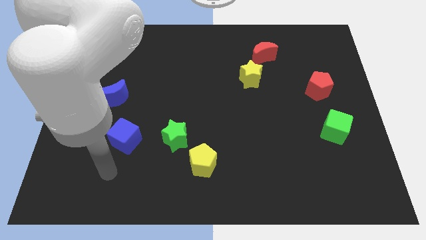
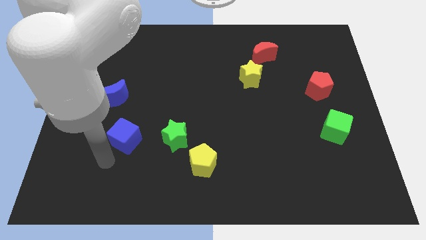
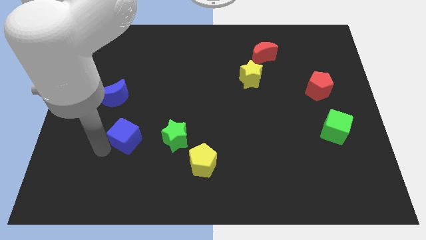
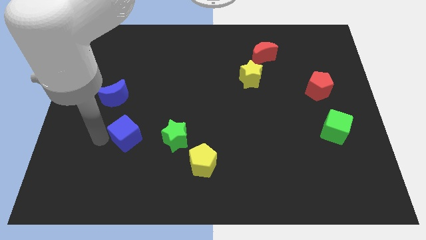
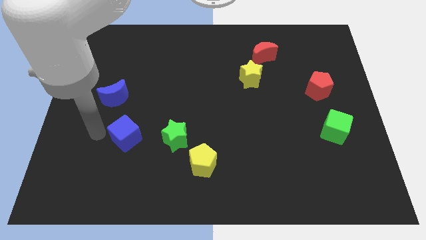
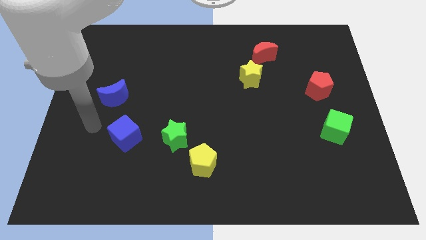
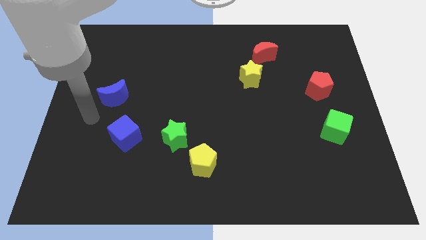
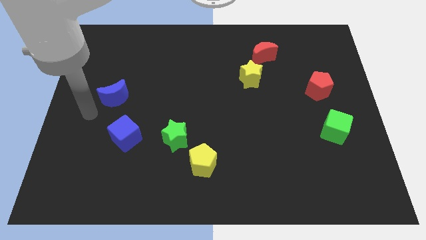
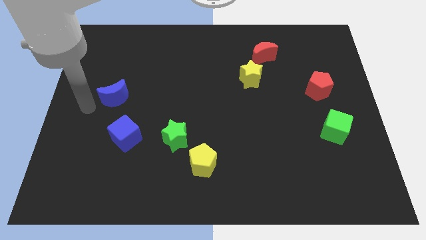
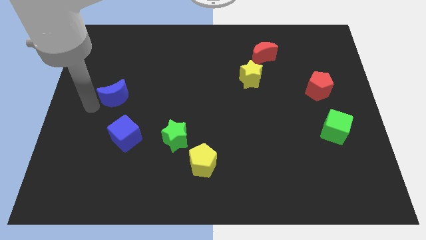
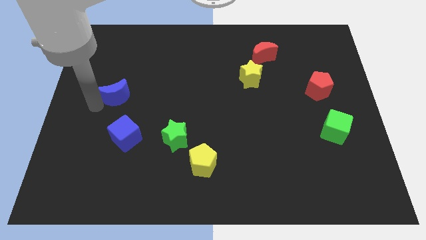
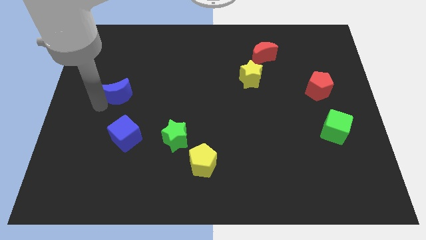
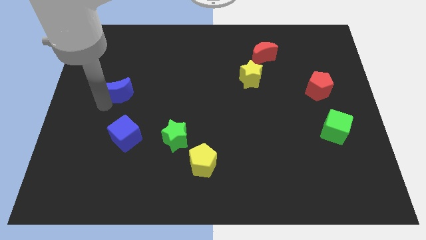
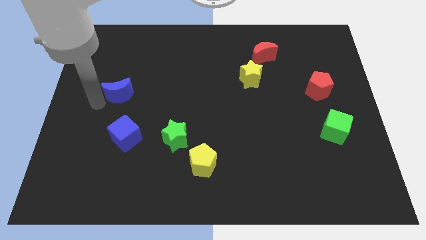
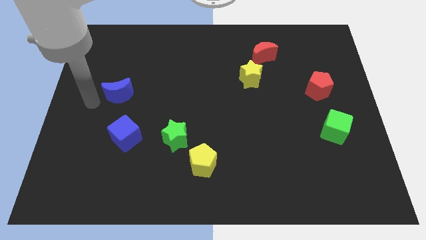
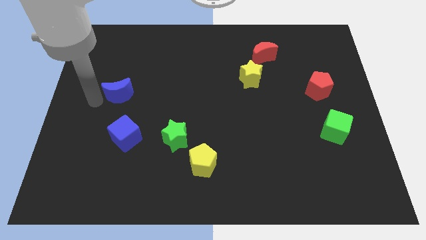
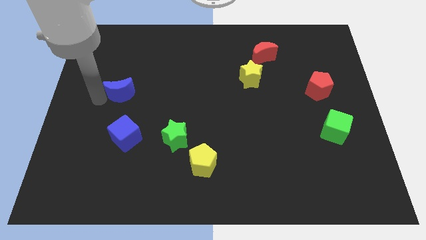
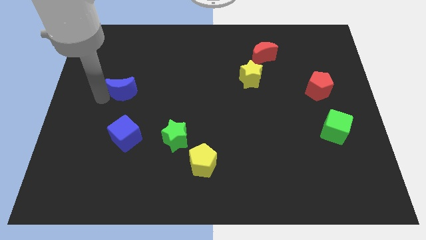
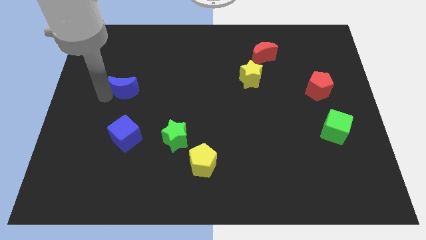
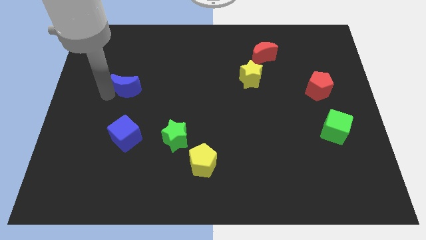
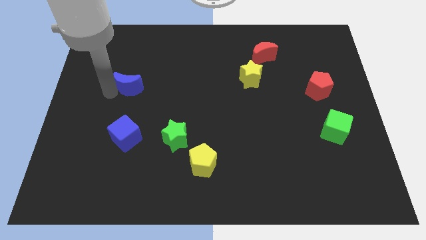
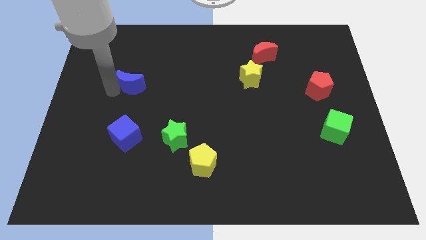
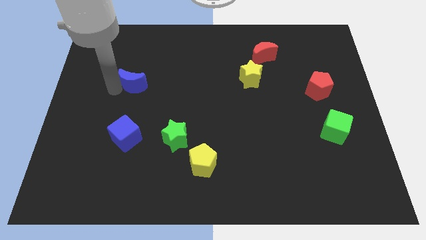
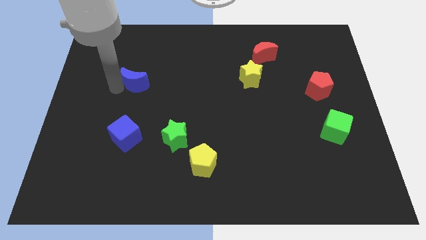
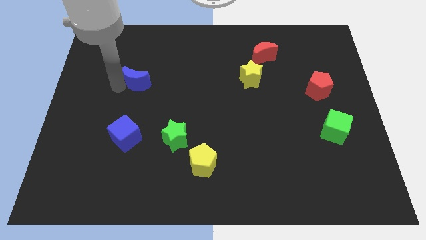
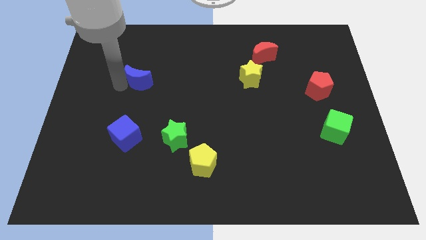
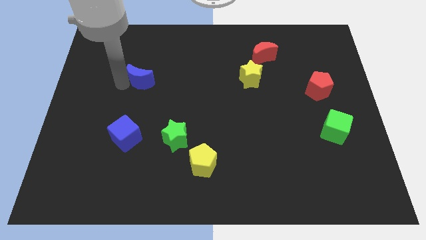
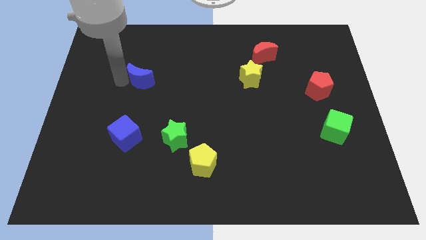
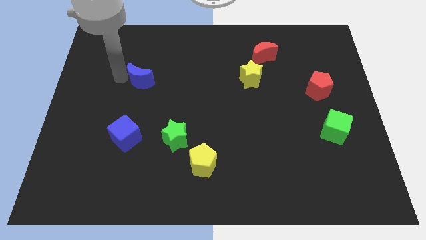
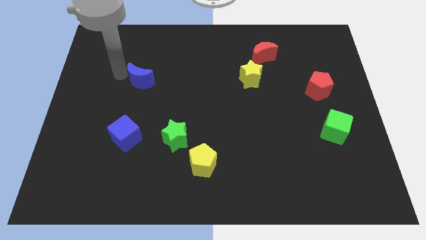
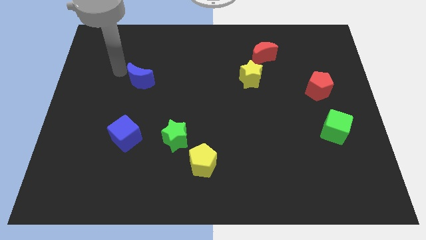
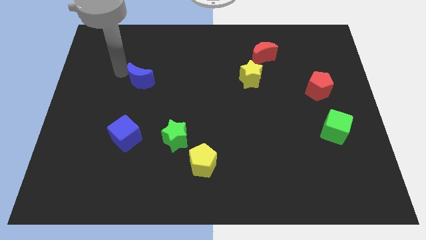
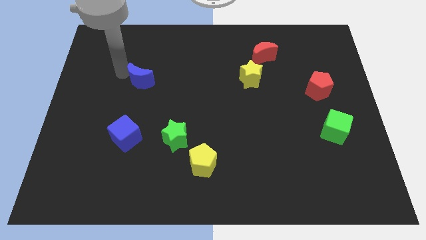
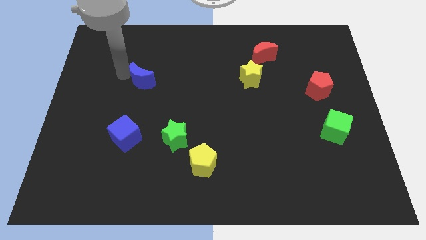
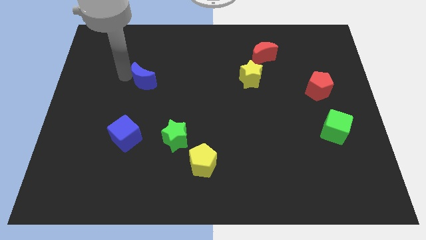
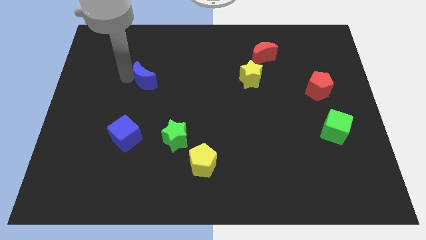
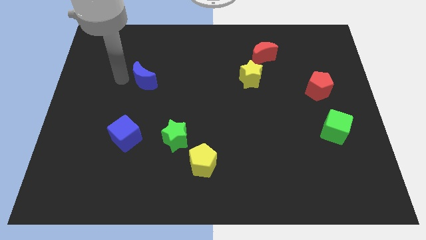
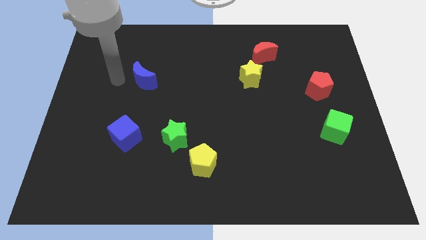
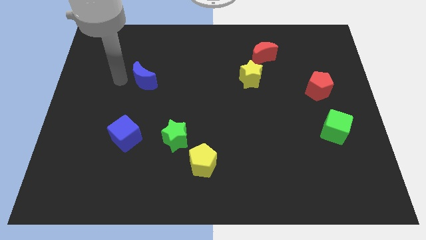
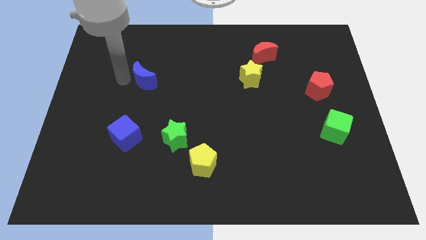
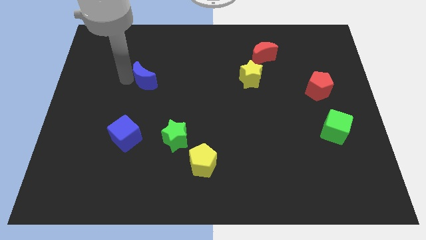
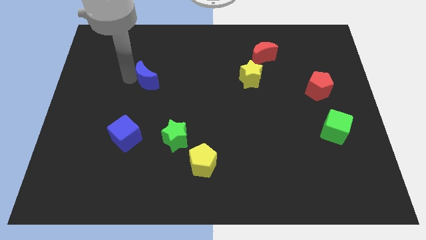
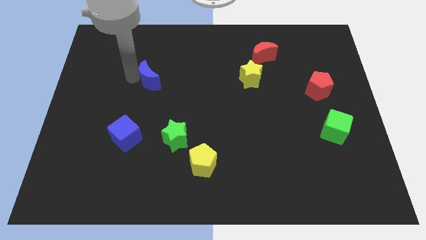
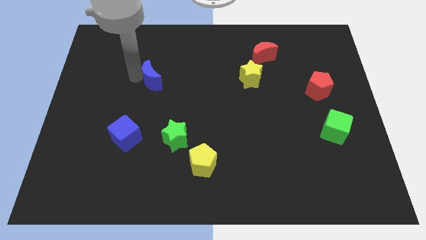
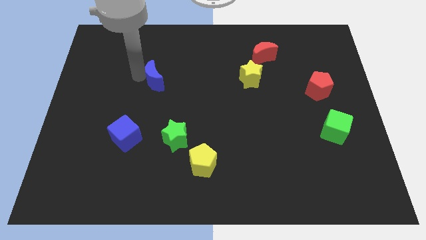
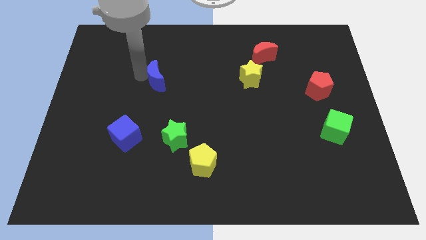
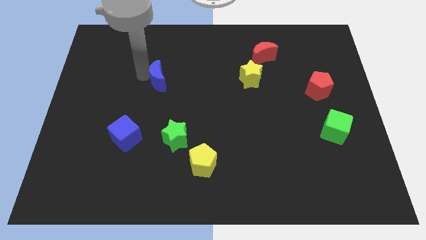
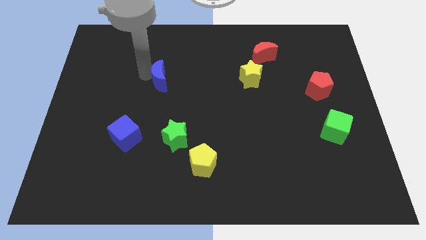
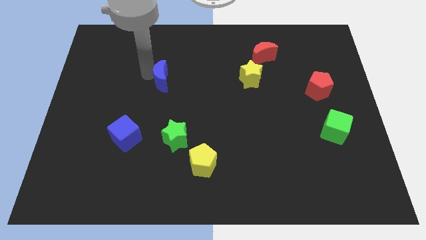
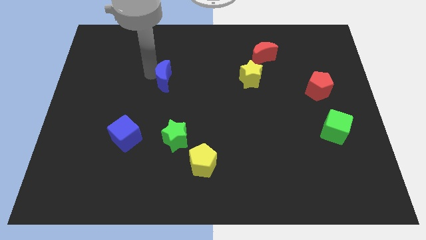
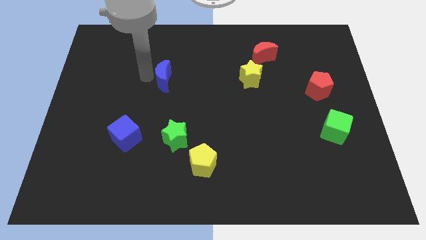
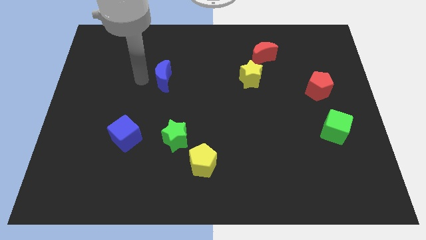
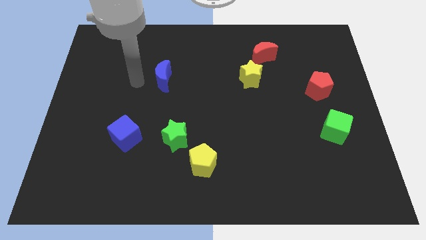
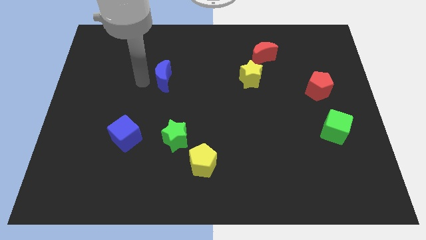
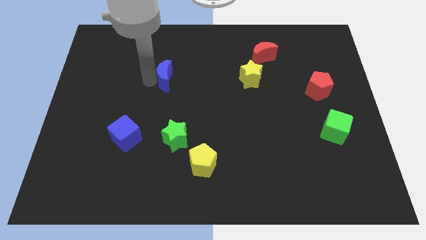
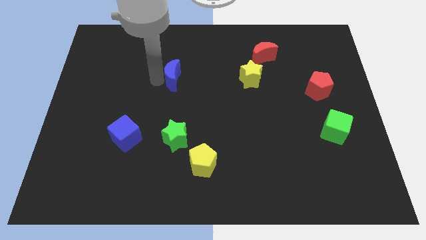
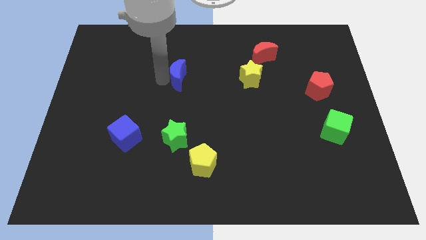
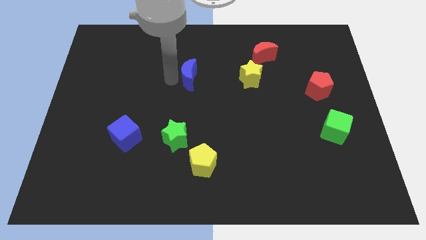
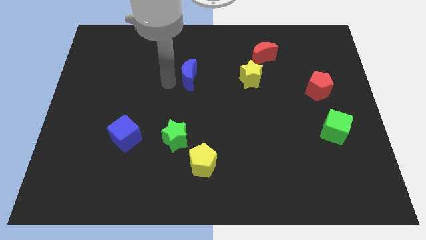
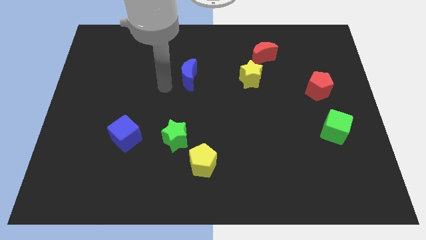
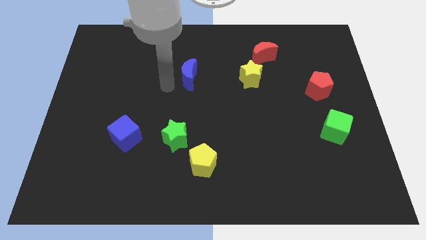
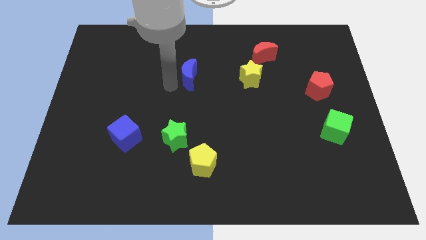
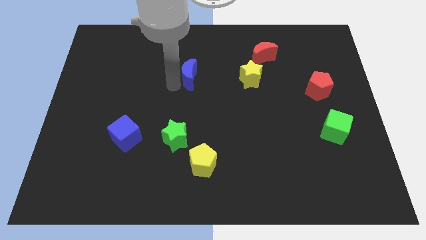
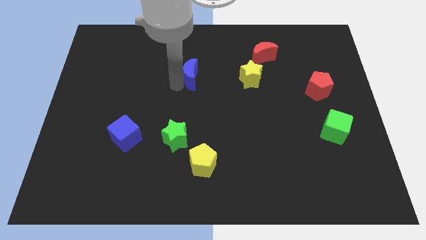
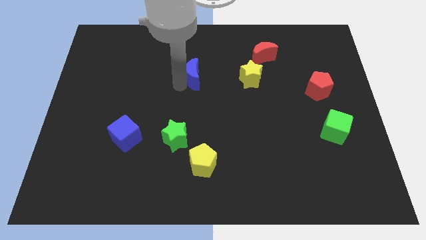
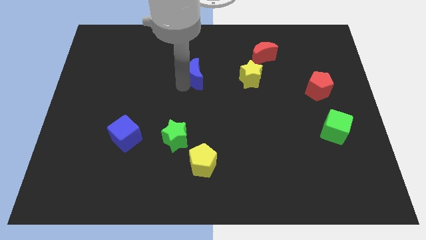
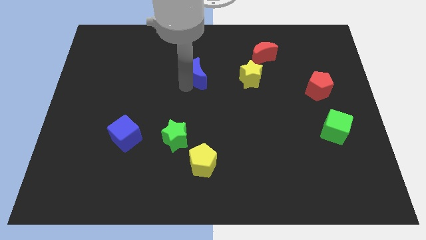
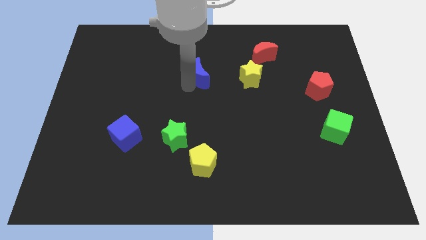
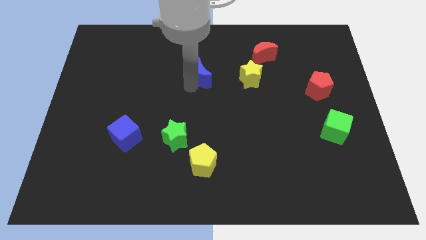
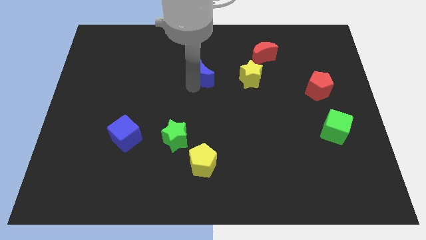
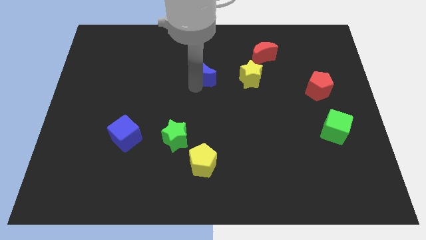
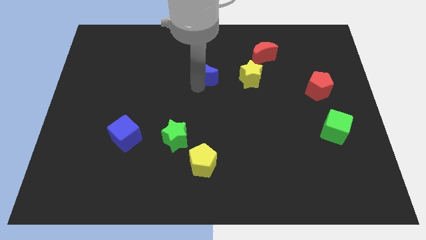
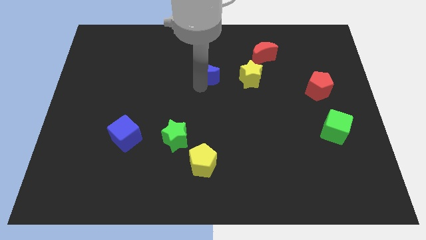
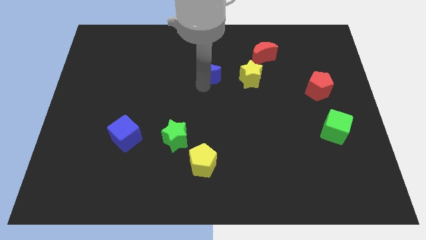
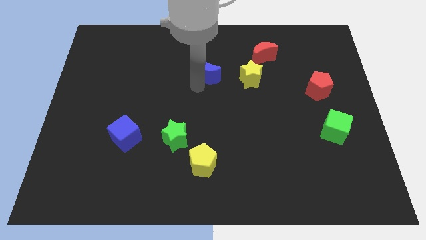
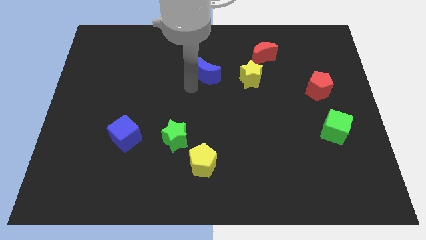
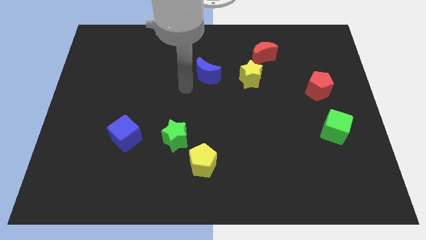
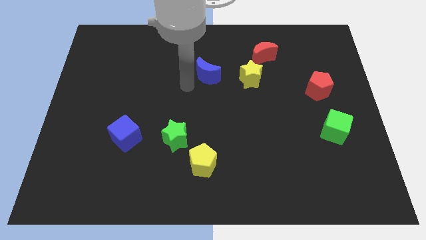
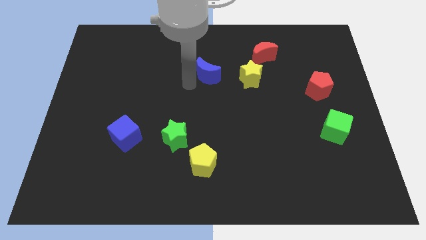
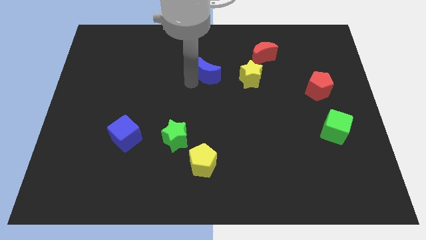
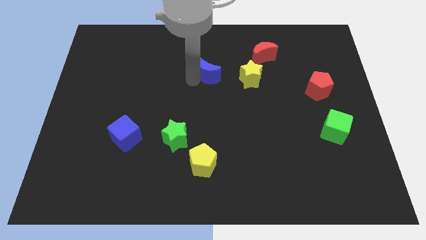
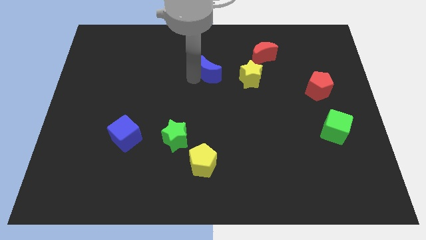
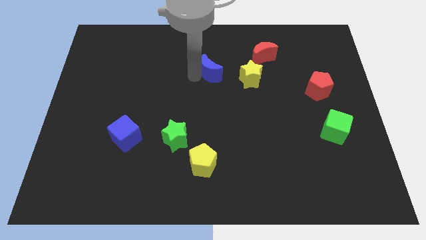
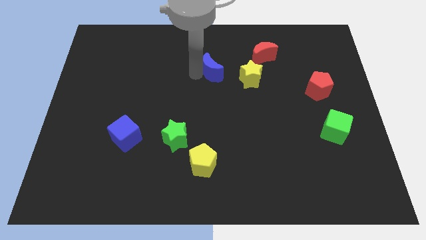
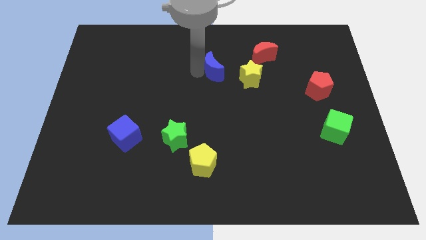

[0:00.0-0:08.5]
put the blue moon to the top left side of the yellow star
